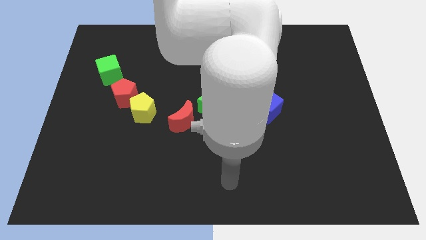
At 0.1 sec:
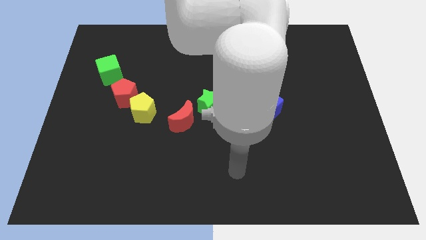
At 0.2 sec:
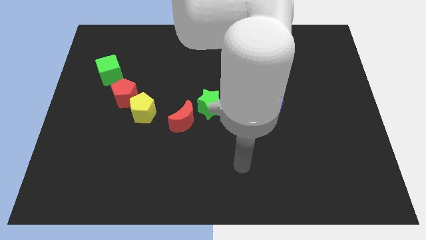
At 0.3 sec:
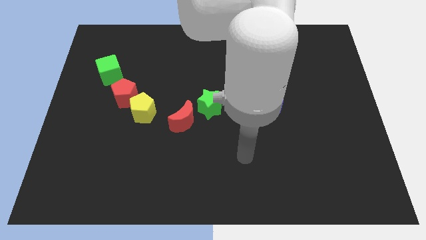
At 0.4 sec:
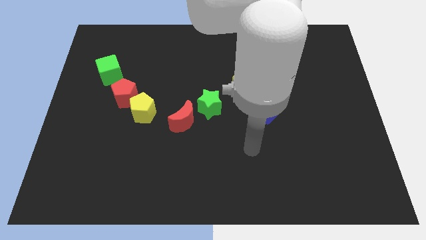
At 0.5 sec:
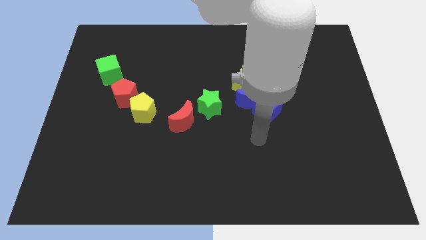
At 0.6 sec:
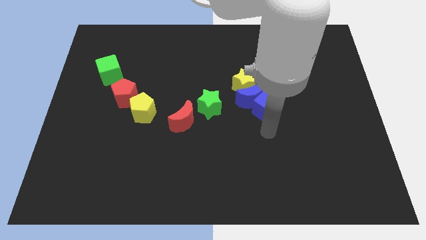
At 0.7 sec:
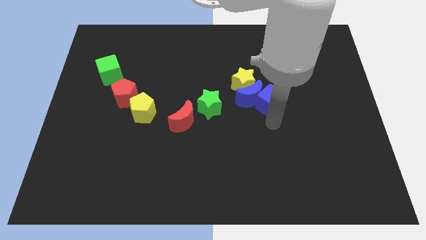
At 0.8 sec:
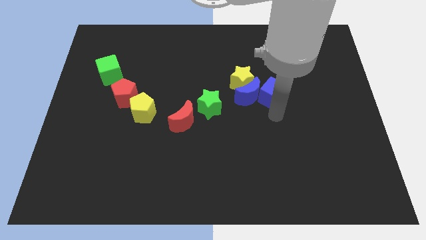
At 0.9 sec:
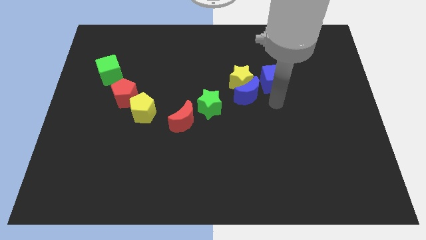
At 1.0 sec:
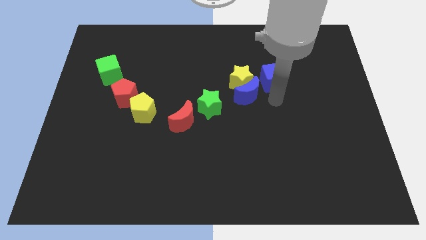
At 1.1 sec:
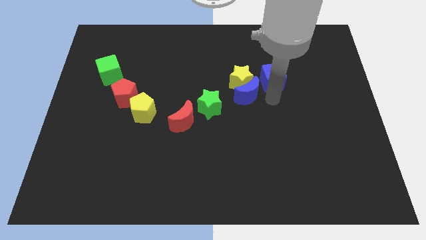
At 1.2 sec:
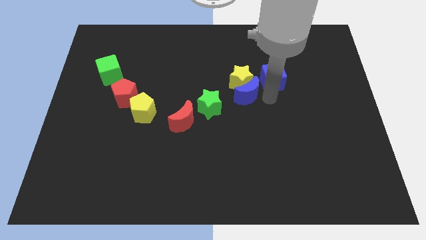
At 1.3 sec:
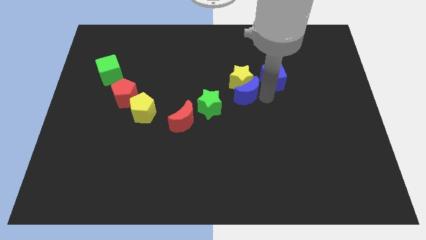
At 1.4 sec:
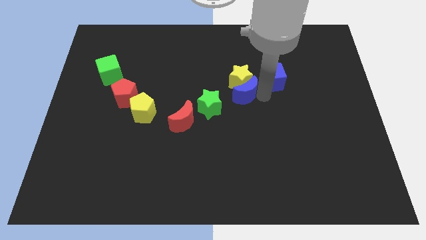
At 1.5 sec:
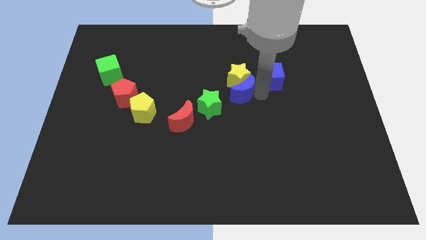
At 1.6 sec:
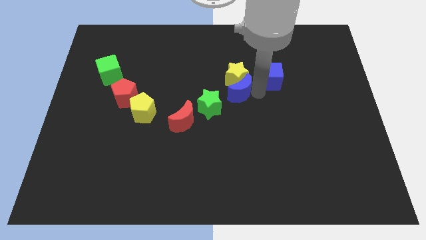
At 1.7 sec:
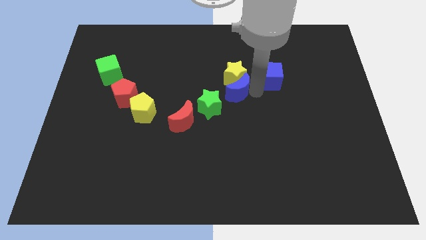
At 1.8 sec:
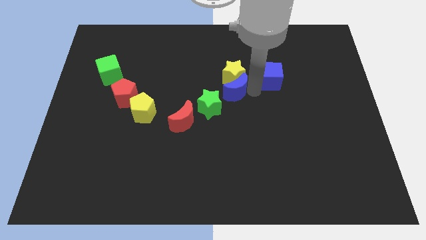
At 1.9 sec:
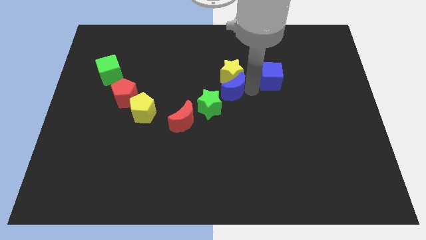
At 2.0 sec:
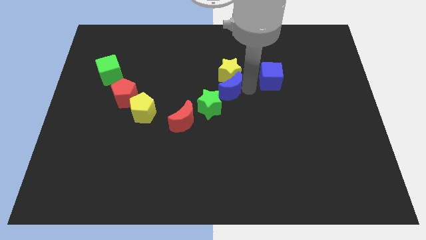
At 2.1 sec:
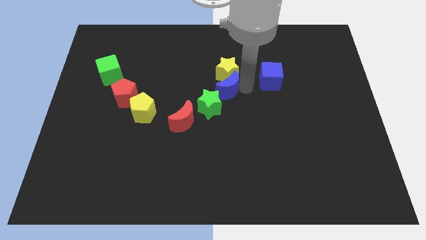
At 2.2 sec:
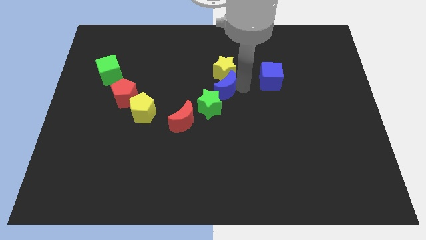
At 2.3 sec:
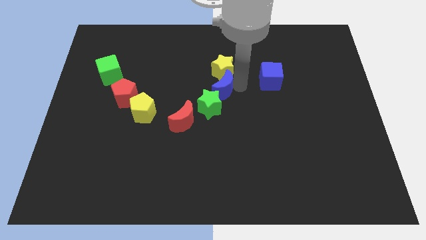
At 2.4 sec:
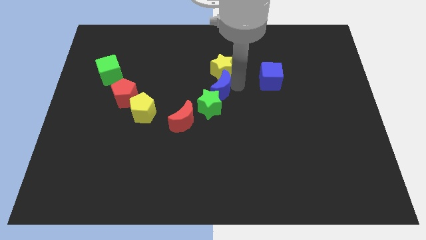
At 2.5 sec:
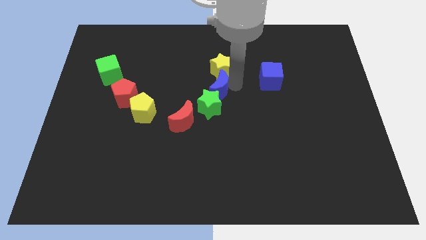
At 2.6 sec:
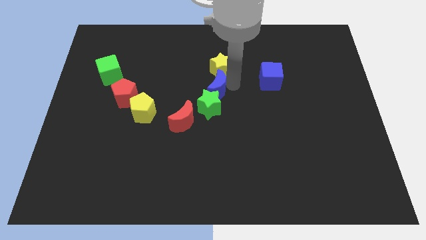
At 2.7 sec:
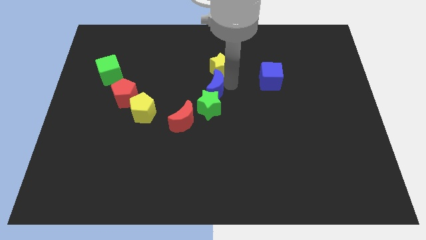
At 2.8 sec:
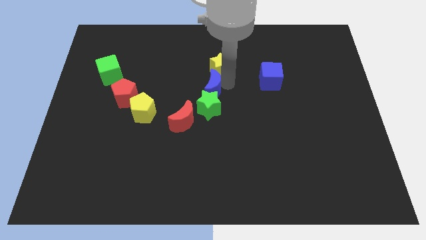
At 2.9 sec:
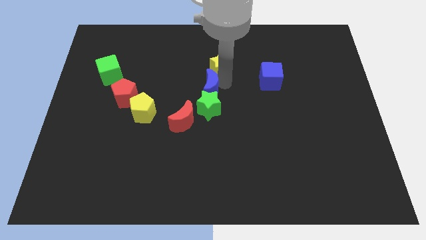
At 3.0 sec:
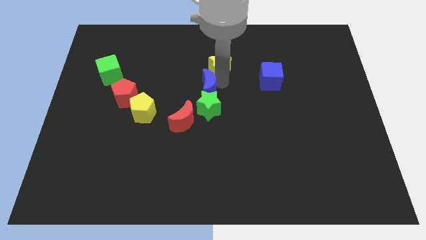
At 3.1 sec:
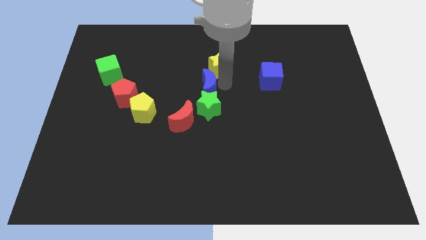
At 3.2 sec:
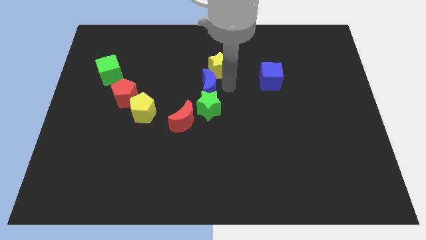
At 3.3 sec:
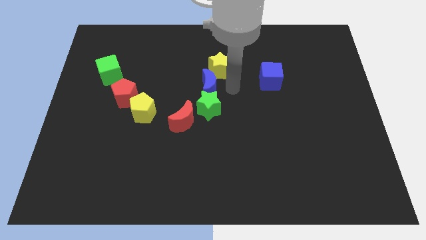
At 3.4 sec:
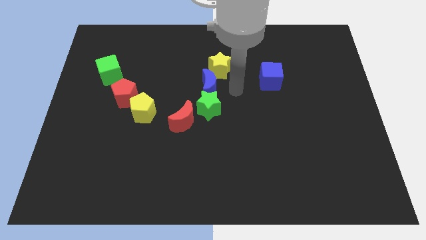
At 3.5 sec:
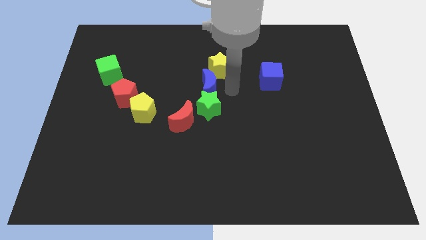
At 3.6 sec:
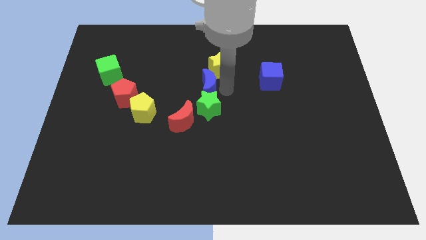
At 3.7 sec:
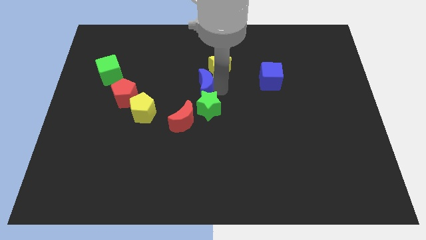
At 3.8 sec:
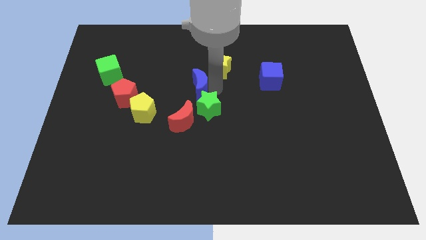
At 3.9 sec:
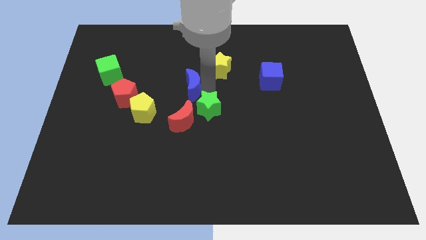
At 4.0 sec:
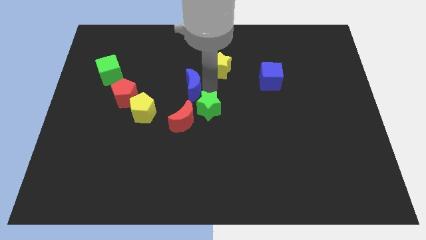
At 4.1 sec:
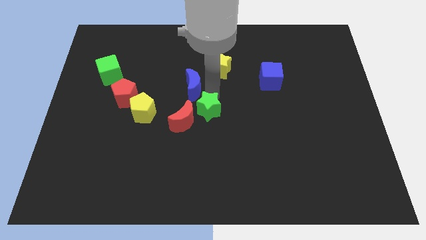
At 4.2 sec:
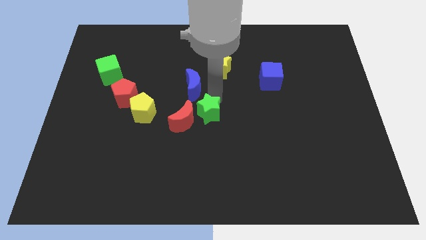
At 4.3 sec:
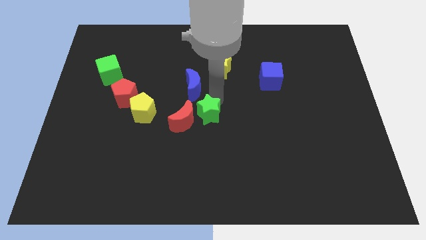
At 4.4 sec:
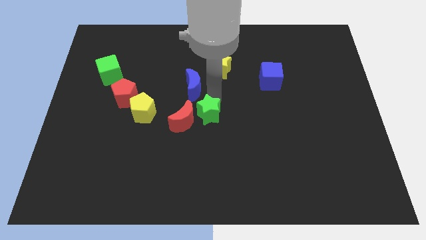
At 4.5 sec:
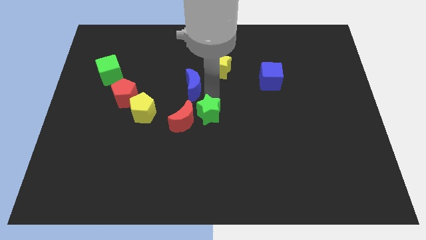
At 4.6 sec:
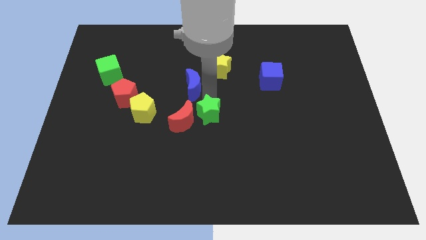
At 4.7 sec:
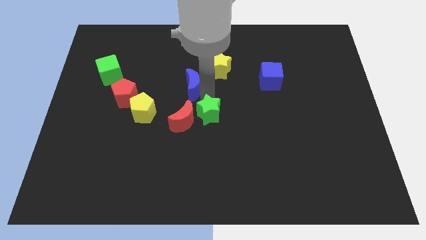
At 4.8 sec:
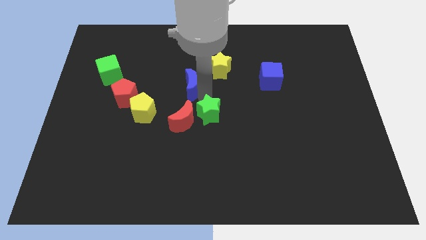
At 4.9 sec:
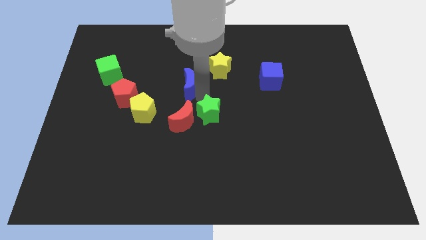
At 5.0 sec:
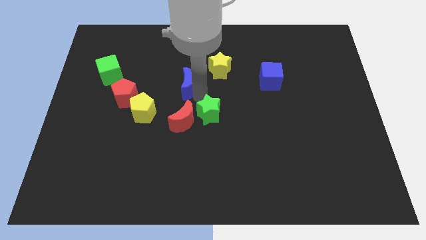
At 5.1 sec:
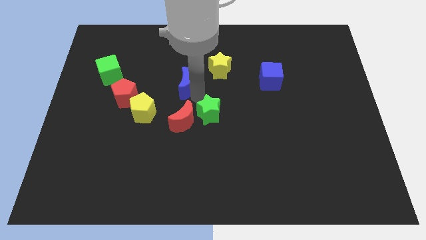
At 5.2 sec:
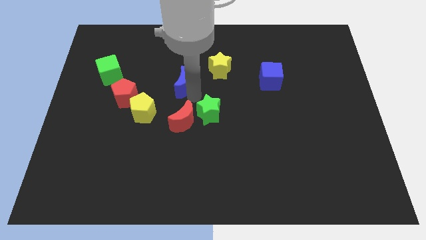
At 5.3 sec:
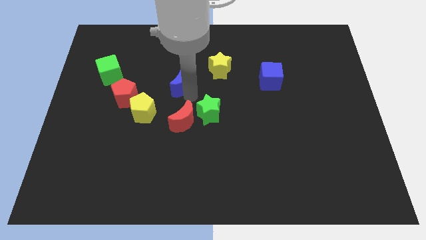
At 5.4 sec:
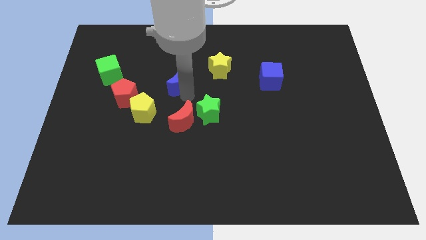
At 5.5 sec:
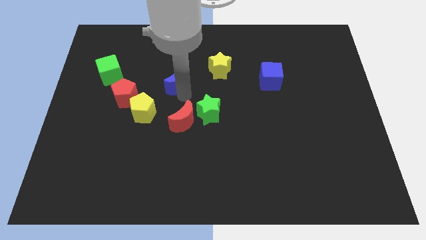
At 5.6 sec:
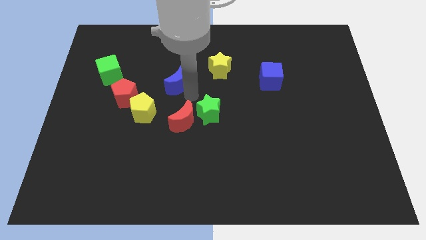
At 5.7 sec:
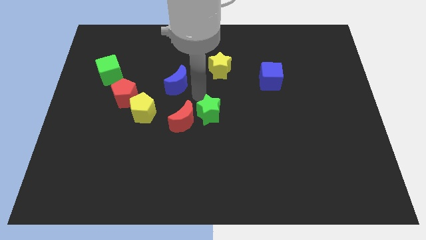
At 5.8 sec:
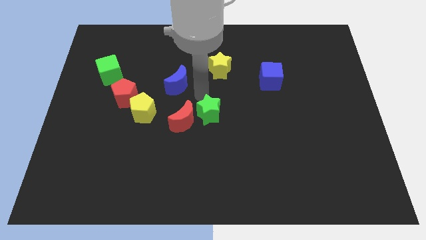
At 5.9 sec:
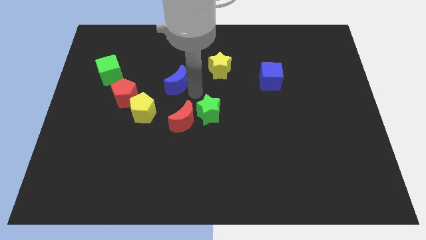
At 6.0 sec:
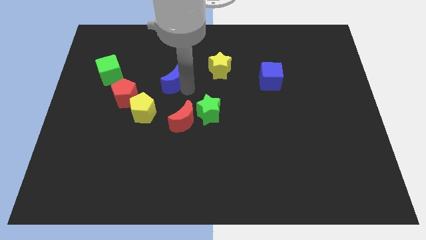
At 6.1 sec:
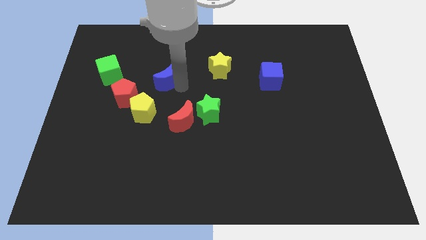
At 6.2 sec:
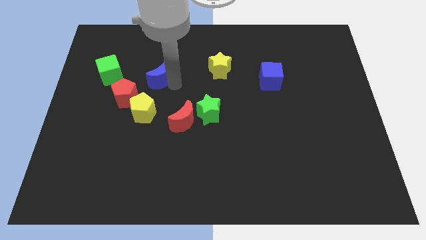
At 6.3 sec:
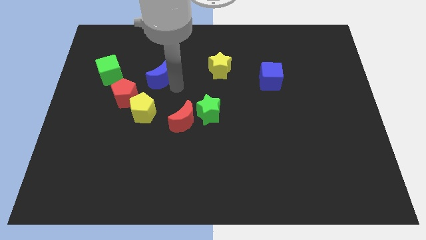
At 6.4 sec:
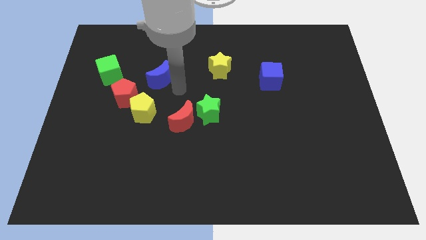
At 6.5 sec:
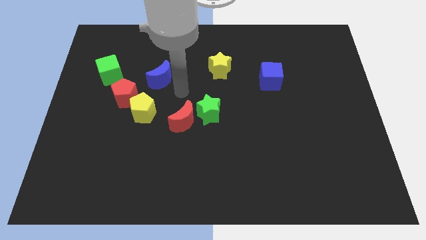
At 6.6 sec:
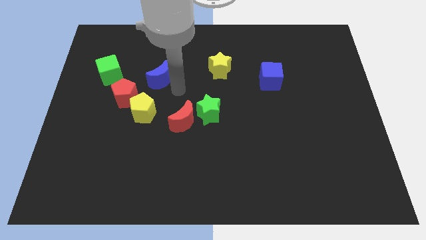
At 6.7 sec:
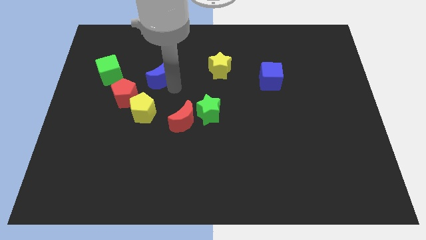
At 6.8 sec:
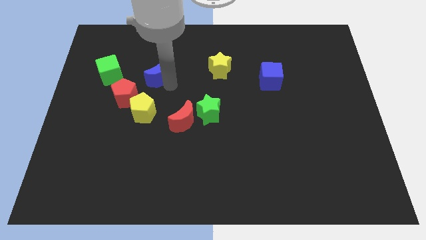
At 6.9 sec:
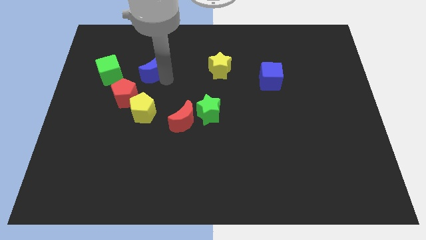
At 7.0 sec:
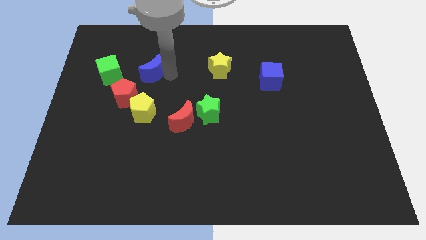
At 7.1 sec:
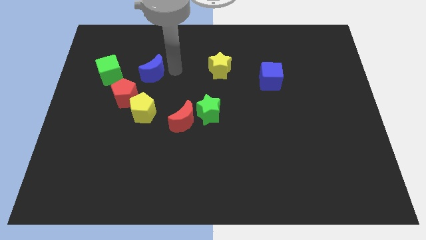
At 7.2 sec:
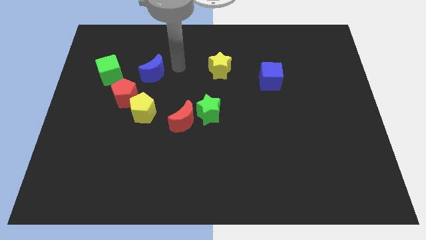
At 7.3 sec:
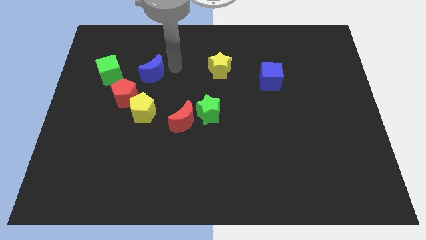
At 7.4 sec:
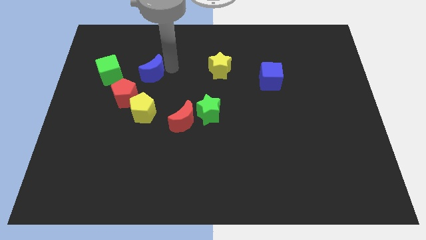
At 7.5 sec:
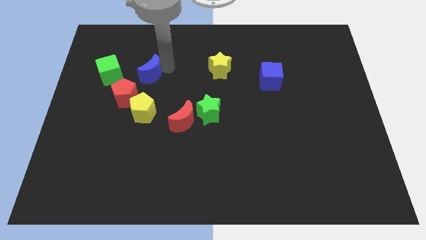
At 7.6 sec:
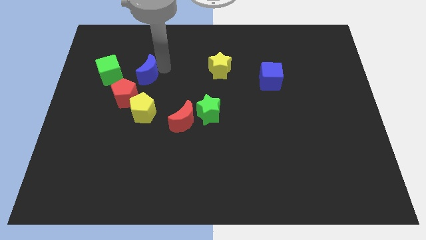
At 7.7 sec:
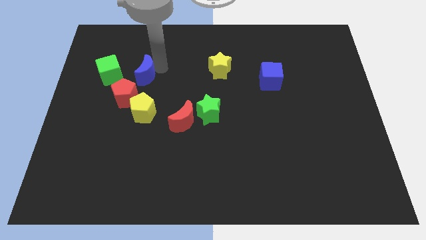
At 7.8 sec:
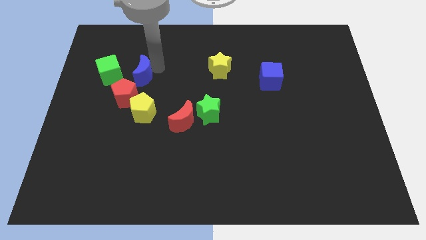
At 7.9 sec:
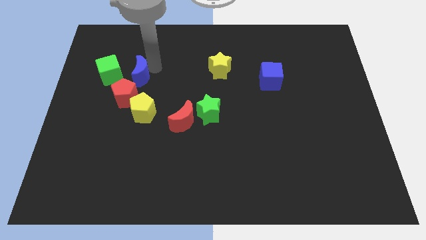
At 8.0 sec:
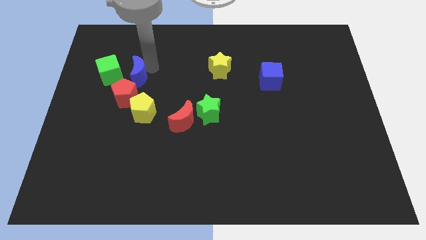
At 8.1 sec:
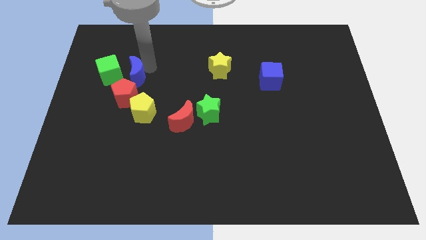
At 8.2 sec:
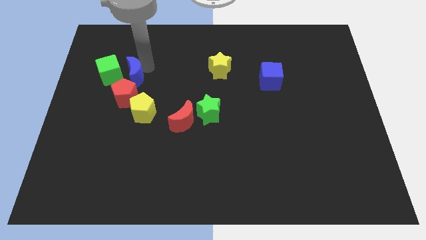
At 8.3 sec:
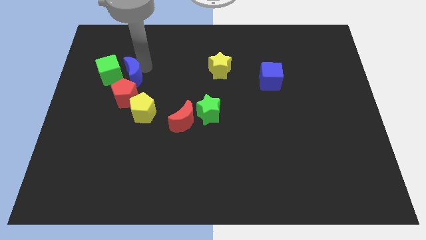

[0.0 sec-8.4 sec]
put the blue moon to the green cube
